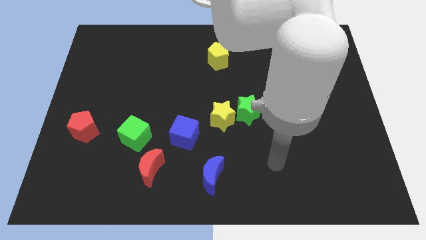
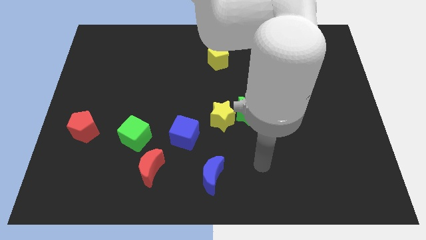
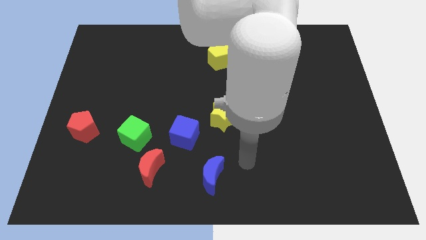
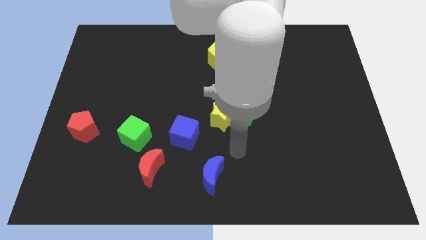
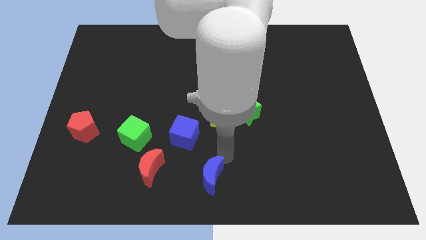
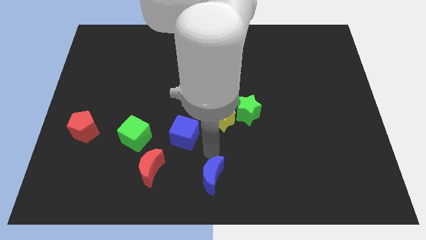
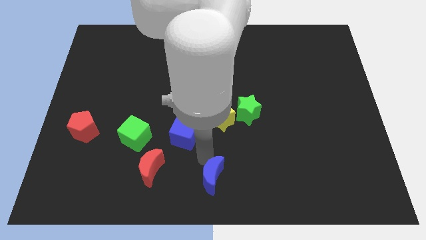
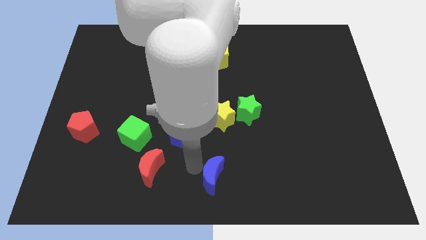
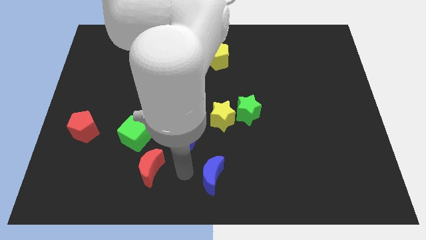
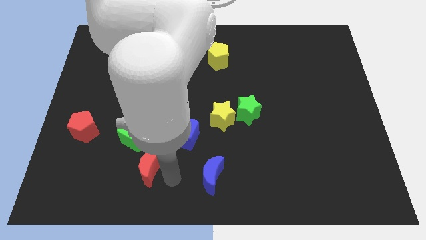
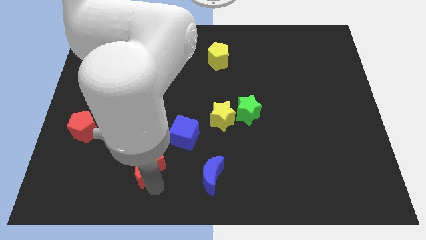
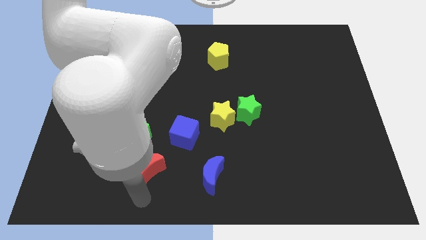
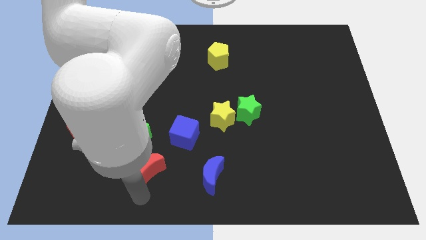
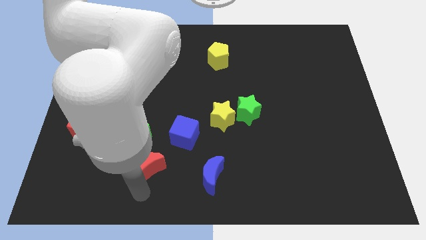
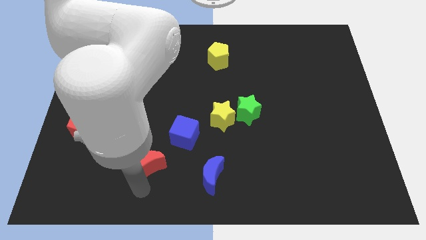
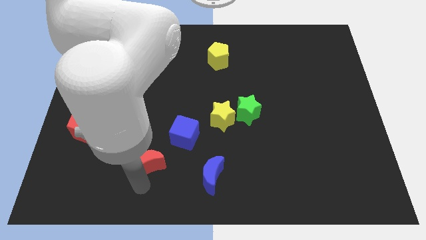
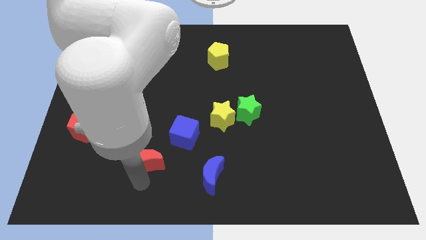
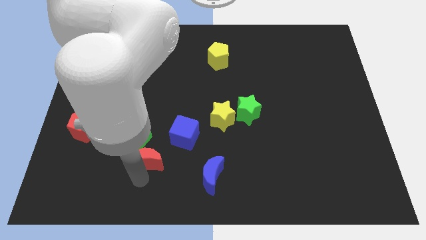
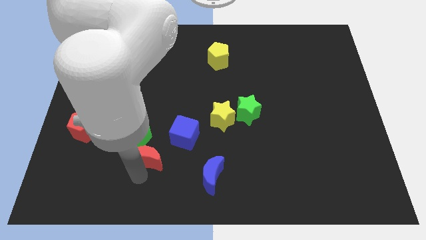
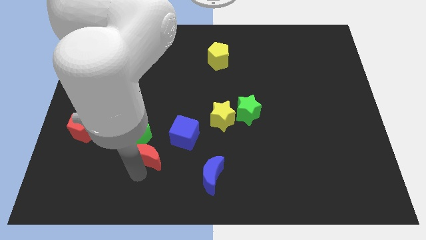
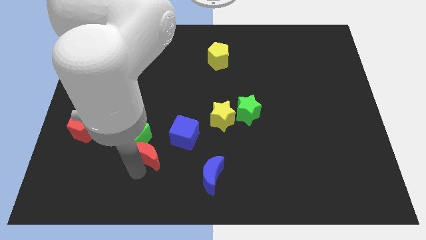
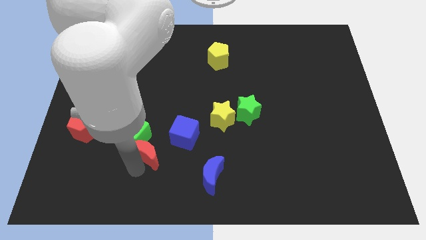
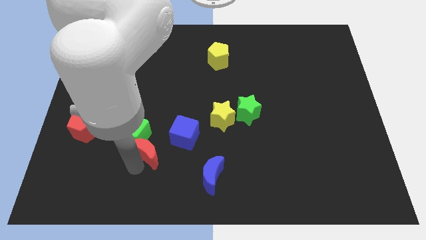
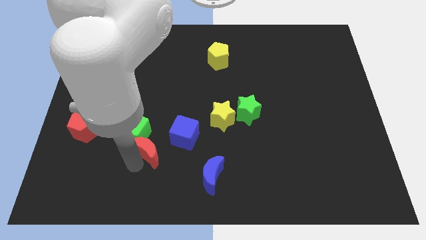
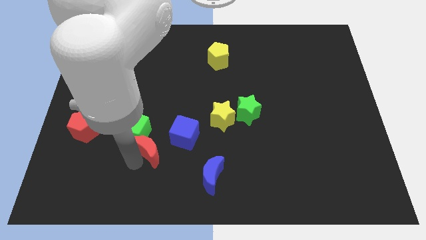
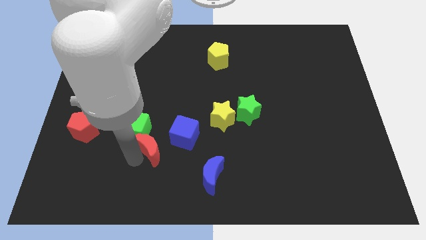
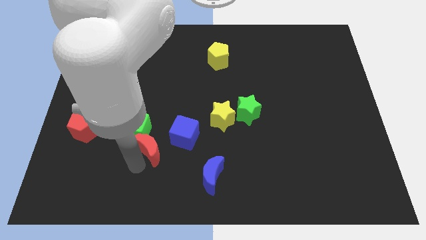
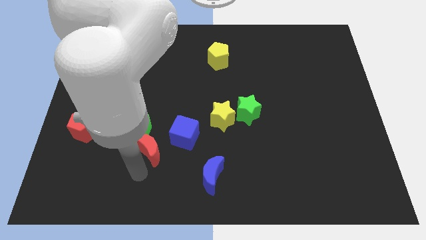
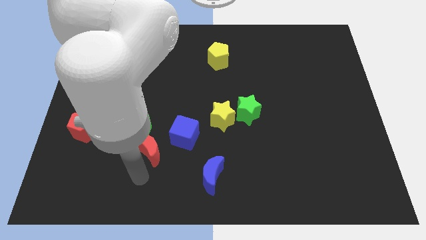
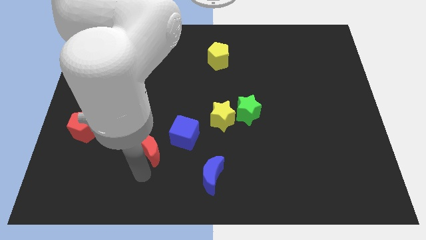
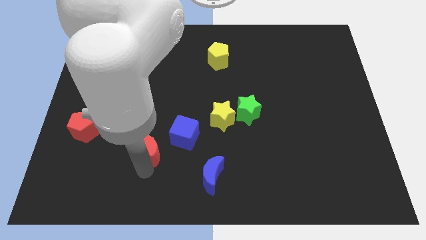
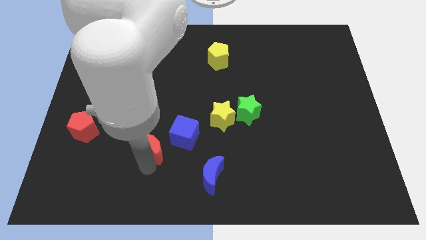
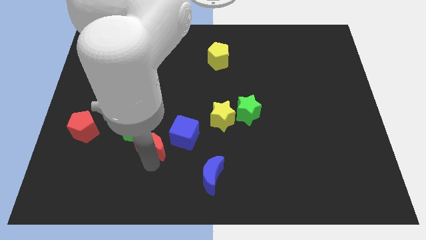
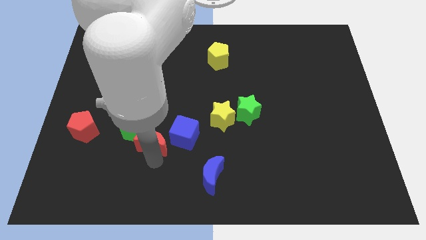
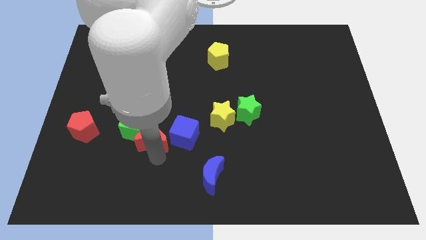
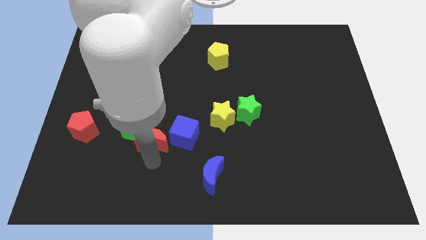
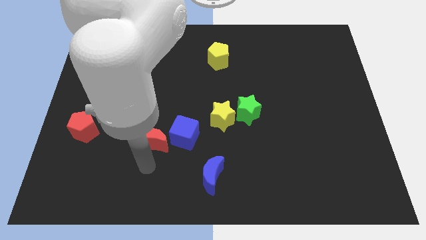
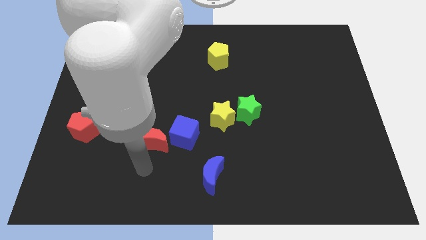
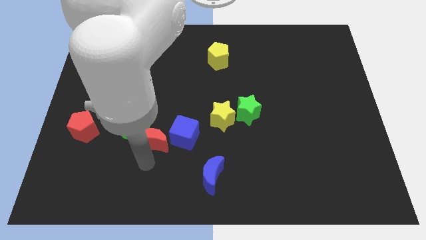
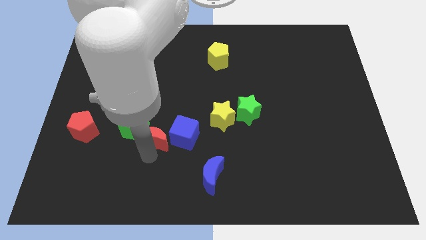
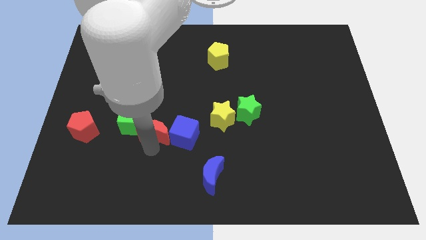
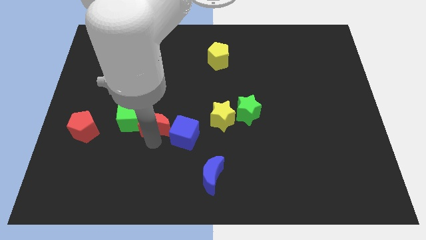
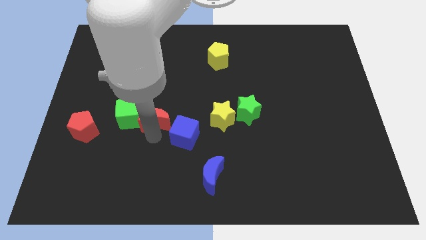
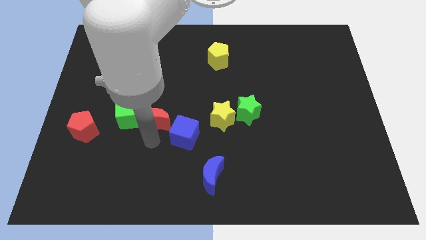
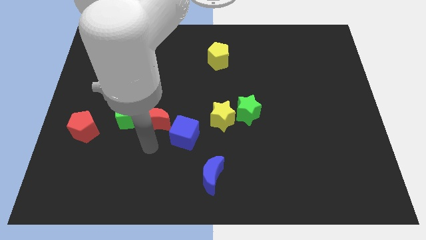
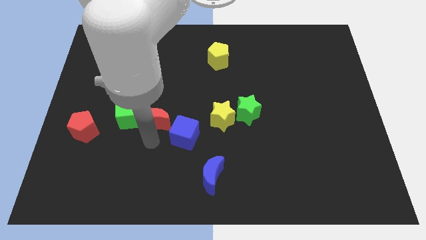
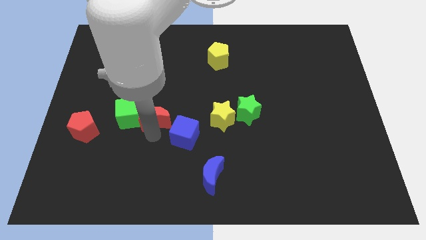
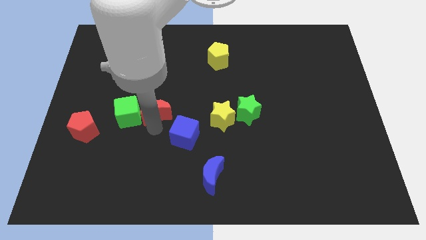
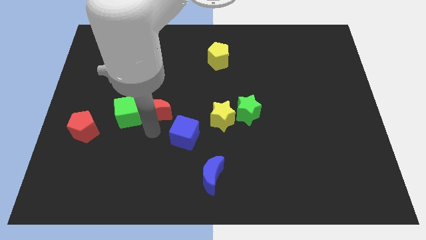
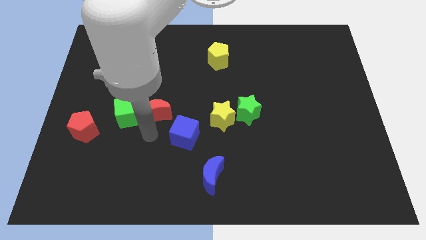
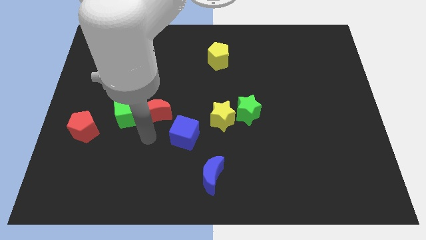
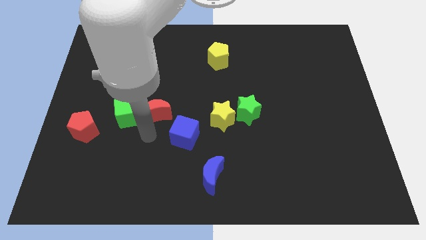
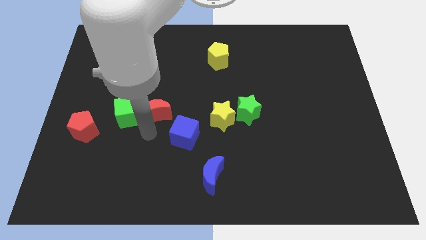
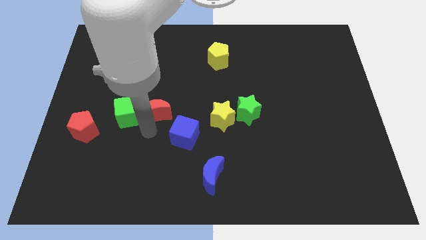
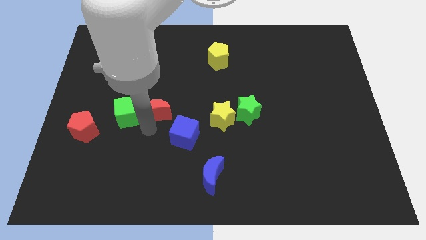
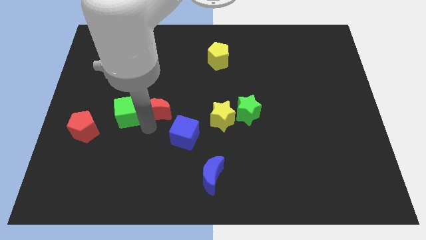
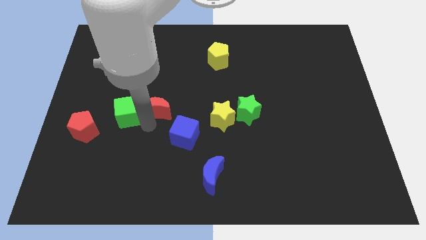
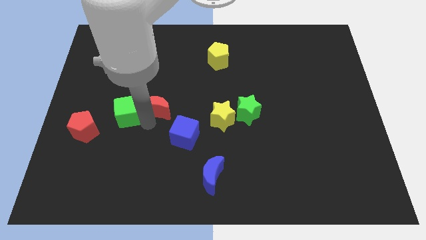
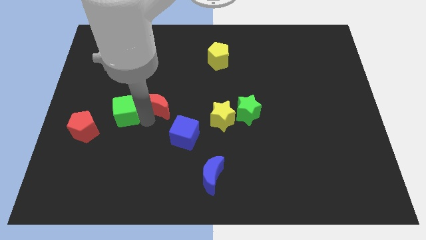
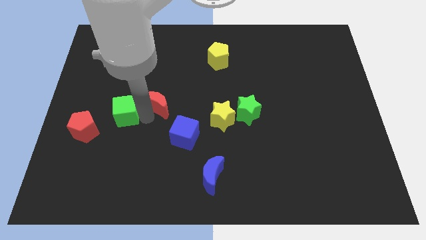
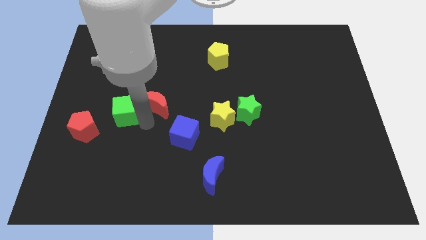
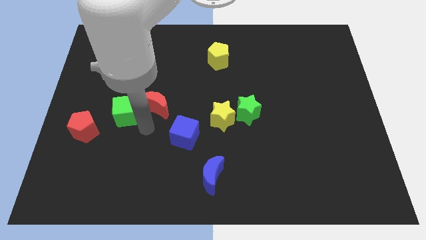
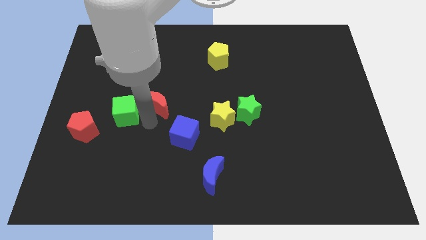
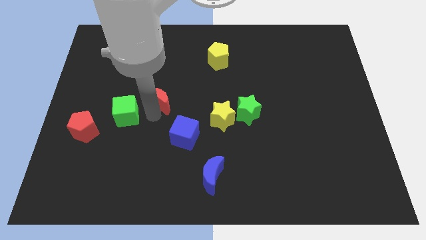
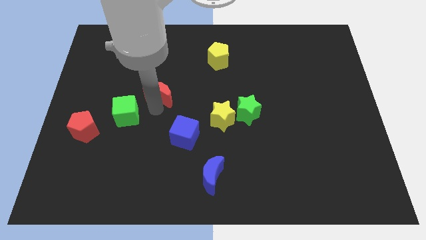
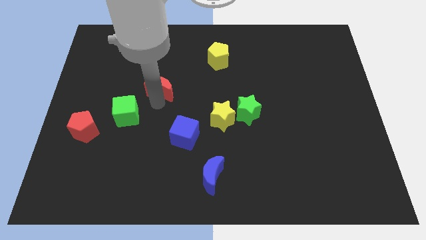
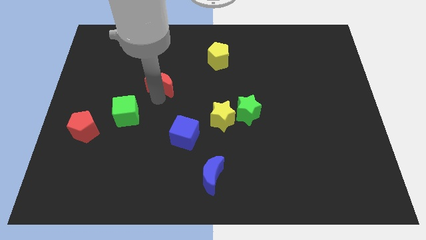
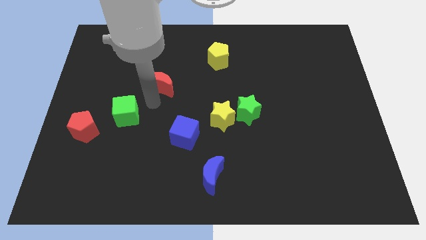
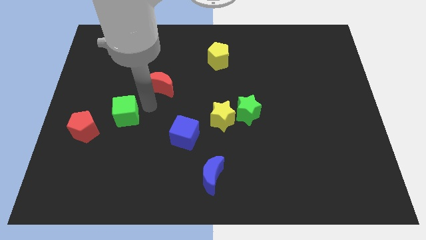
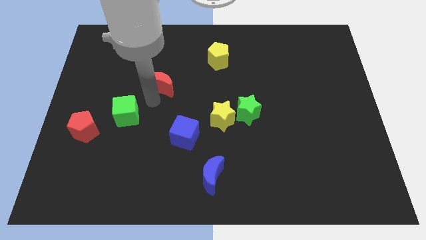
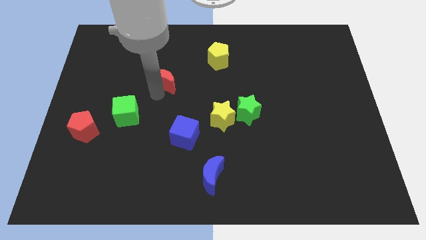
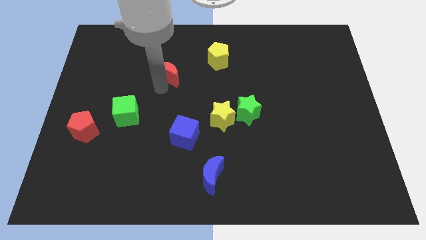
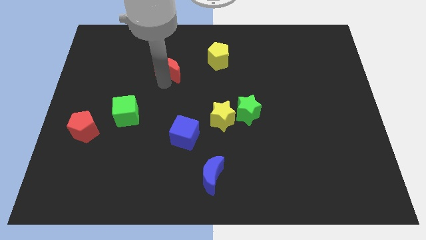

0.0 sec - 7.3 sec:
put the red moon left of the yellow pentagon
